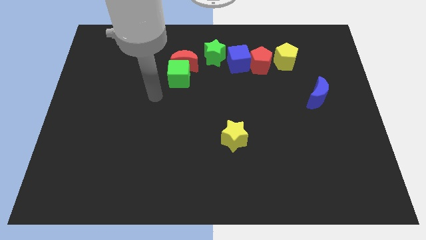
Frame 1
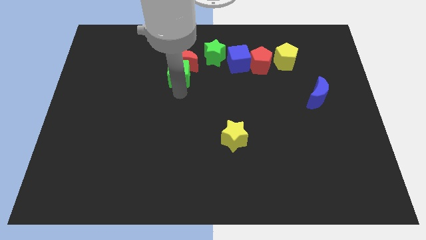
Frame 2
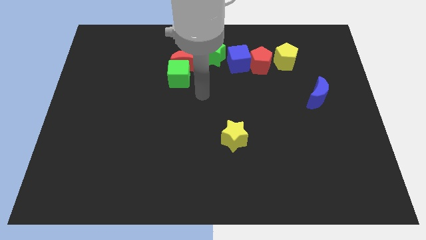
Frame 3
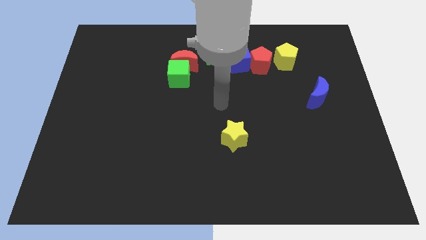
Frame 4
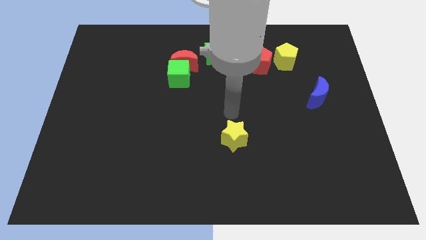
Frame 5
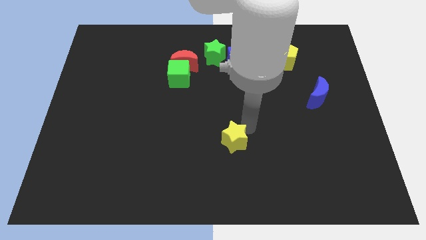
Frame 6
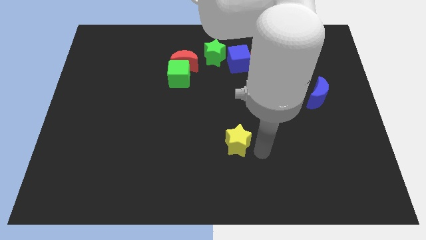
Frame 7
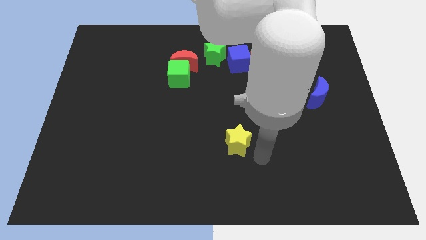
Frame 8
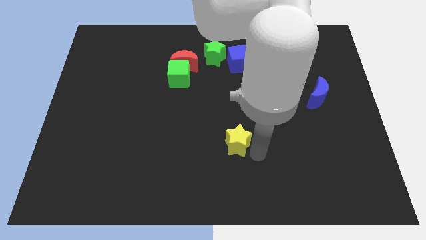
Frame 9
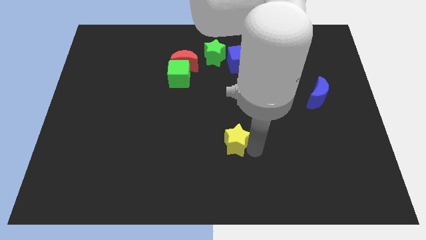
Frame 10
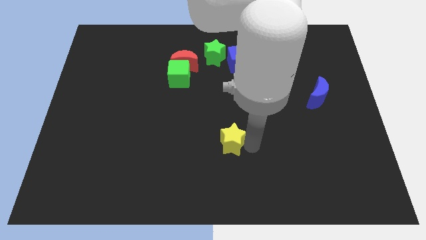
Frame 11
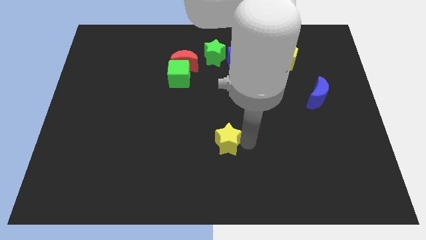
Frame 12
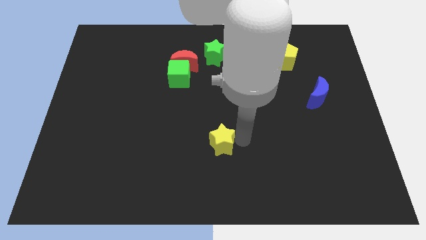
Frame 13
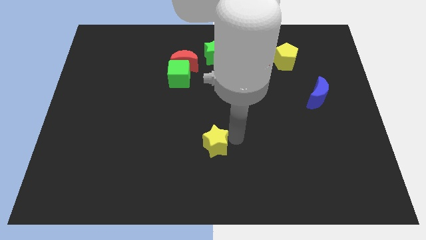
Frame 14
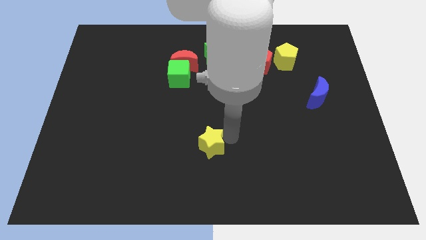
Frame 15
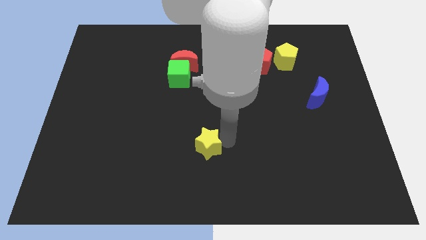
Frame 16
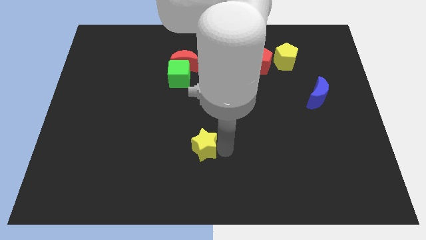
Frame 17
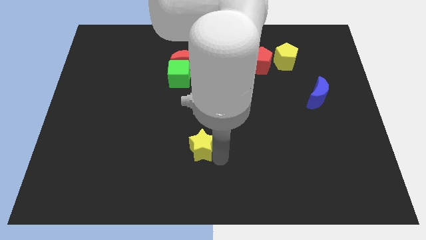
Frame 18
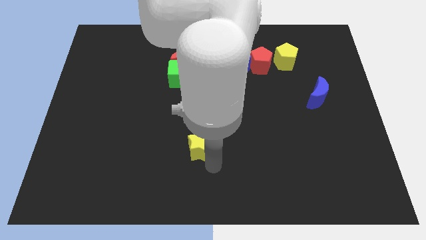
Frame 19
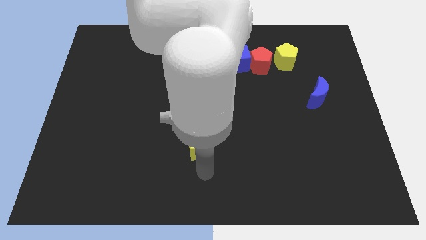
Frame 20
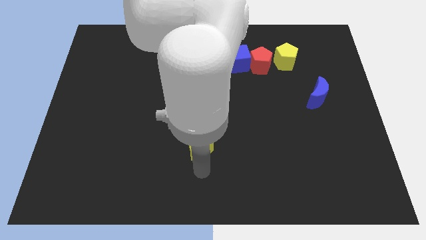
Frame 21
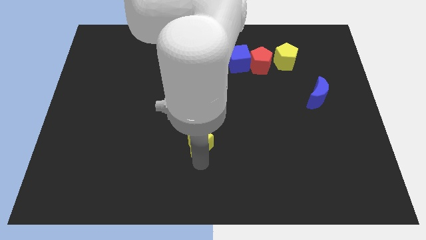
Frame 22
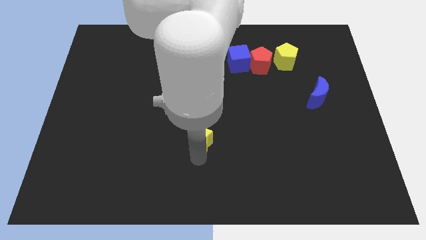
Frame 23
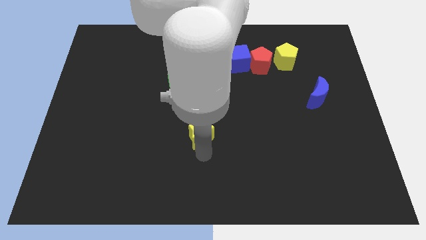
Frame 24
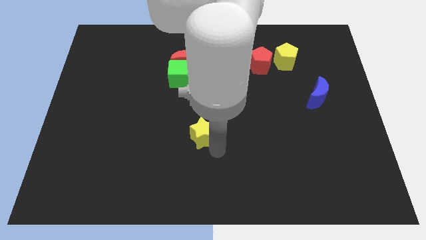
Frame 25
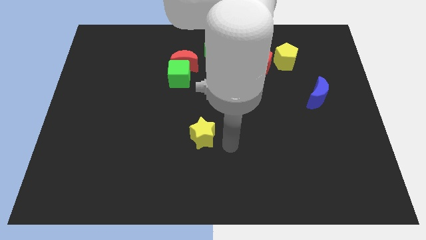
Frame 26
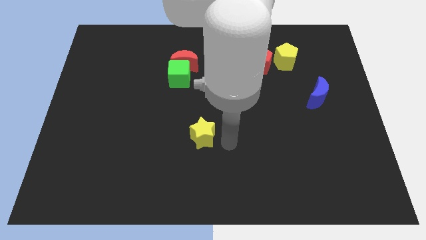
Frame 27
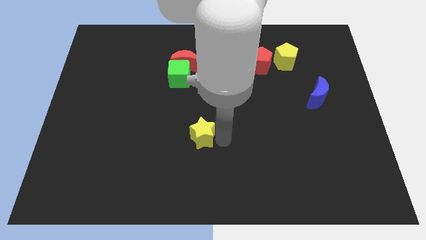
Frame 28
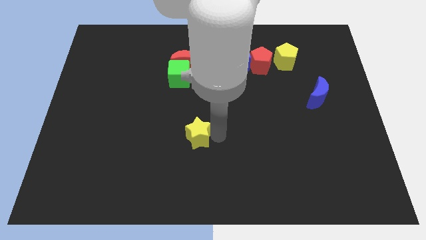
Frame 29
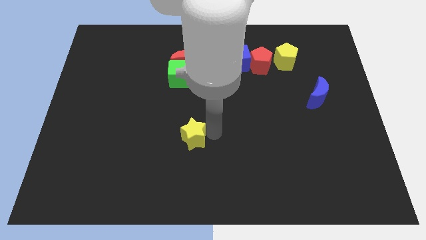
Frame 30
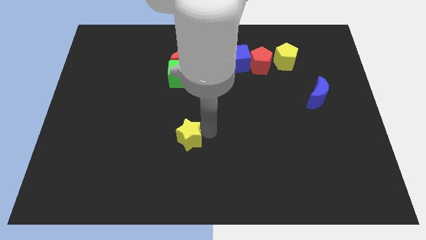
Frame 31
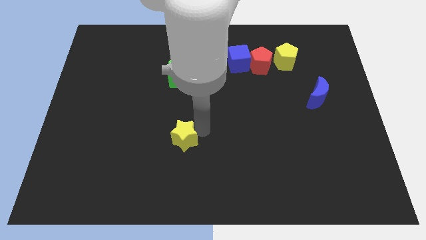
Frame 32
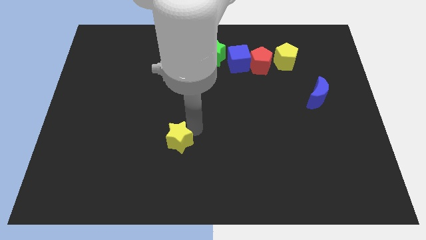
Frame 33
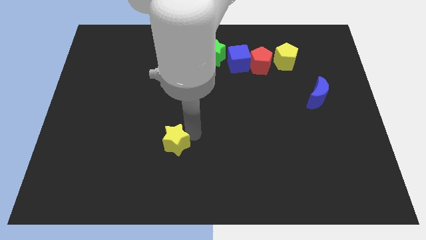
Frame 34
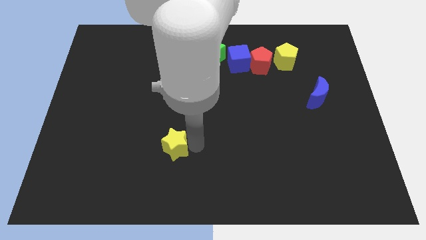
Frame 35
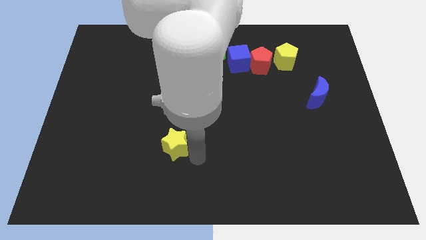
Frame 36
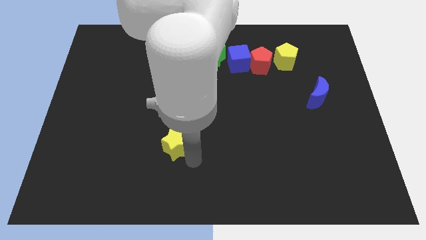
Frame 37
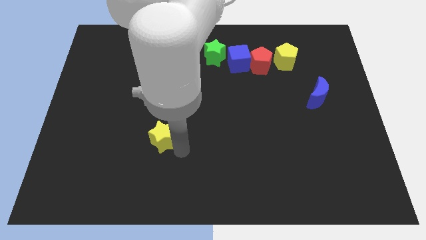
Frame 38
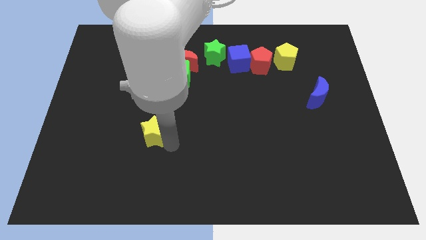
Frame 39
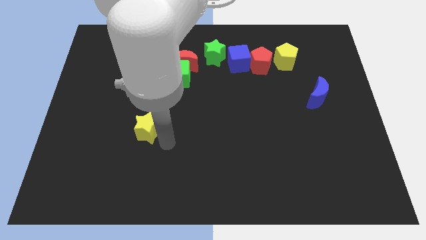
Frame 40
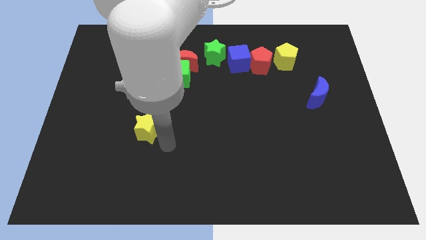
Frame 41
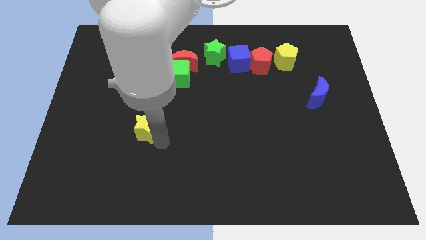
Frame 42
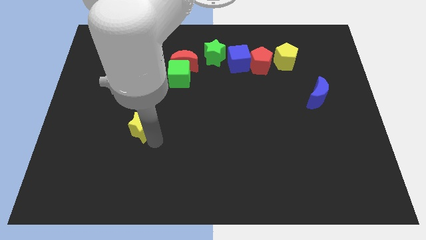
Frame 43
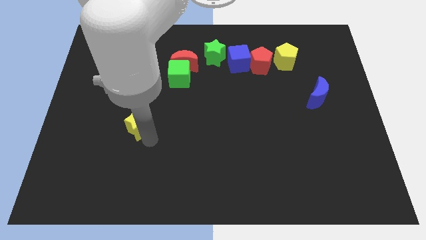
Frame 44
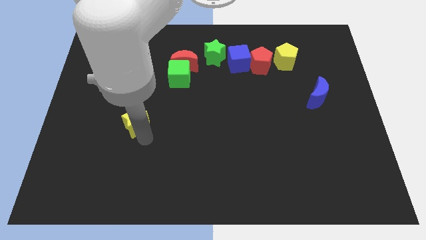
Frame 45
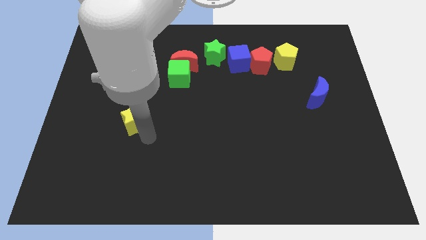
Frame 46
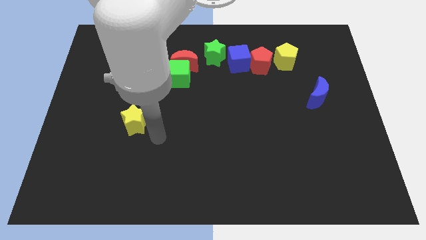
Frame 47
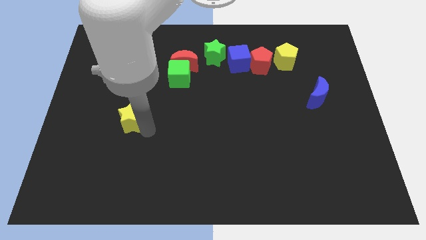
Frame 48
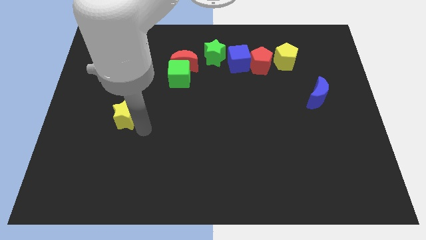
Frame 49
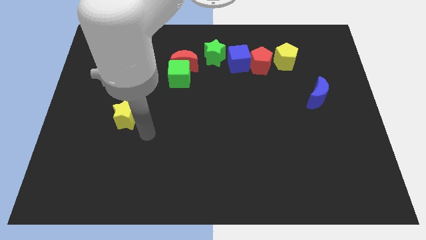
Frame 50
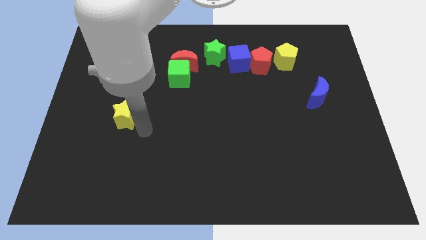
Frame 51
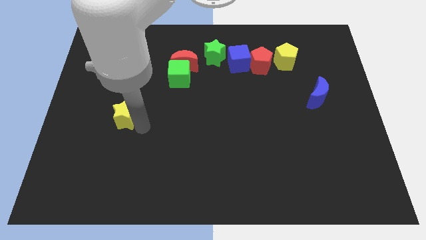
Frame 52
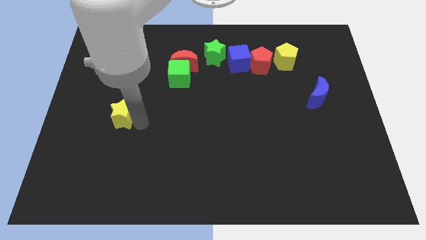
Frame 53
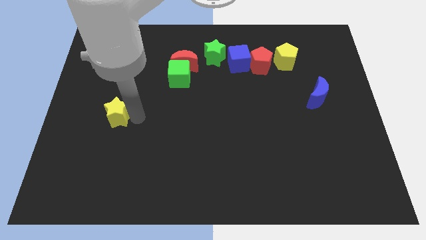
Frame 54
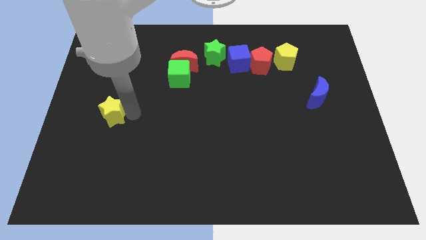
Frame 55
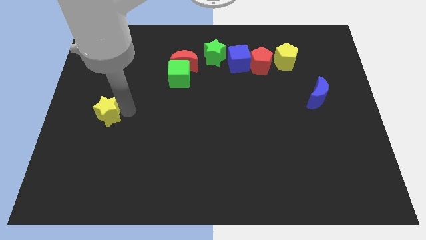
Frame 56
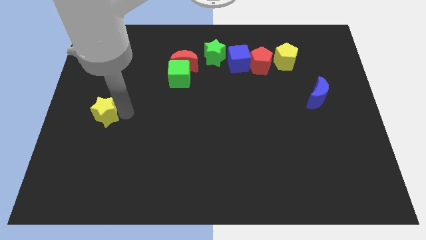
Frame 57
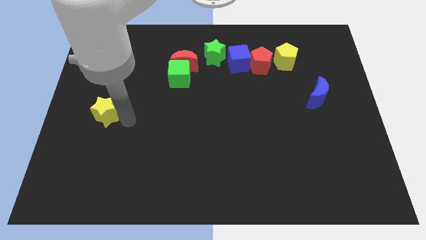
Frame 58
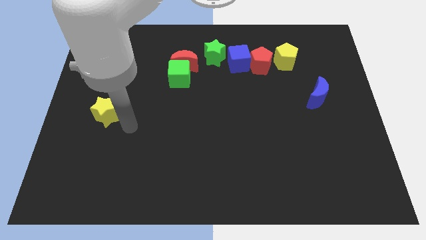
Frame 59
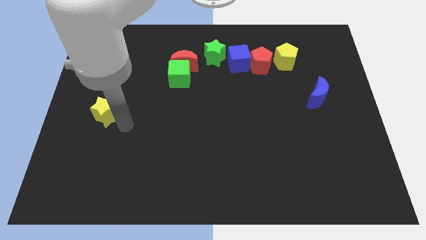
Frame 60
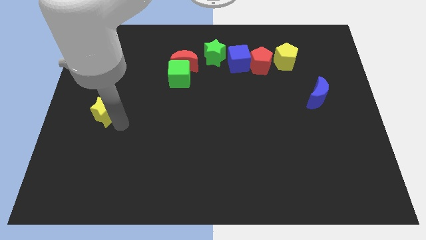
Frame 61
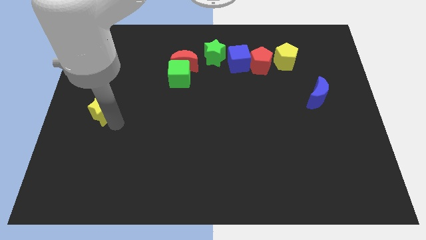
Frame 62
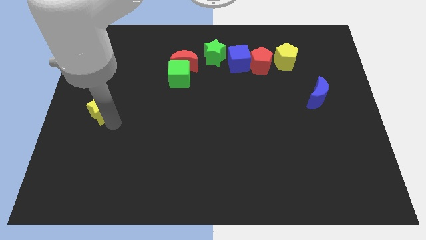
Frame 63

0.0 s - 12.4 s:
put the yellow star to the center left

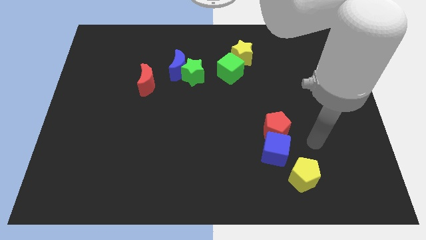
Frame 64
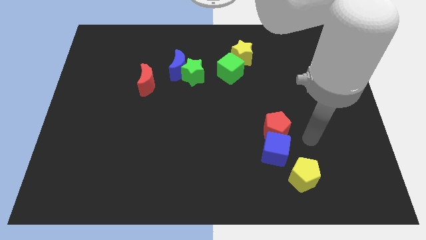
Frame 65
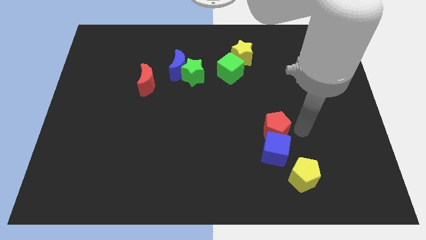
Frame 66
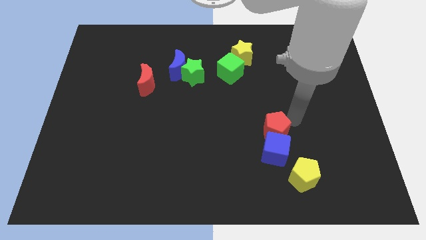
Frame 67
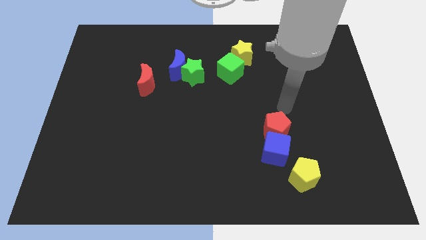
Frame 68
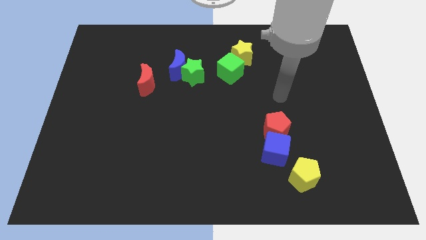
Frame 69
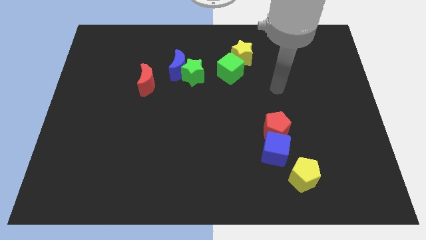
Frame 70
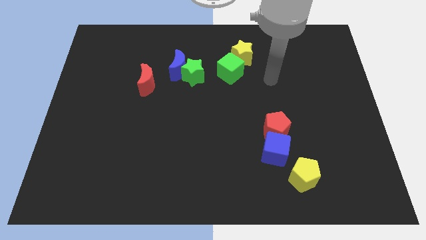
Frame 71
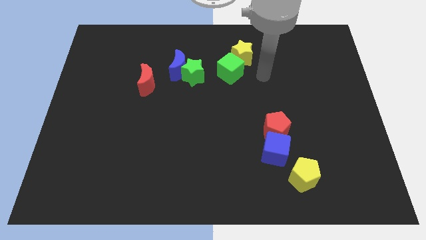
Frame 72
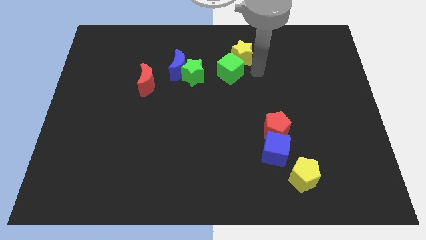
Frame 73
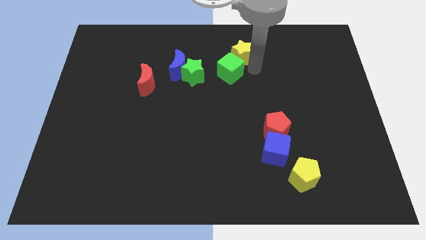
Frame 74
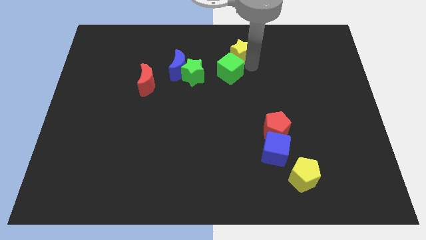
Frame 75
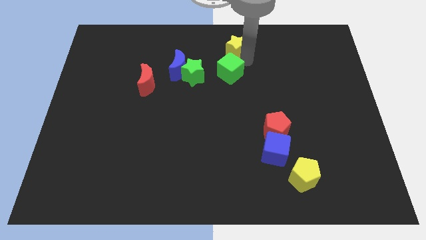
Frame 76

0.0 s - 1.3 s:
push the yellow star to the top side
